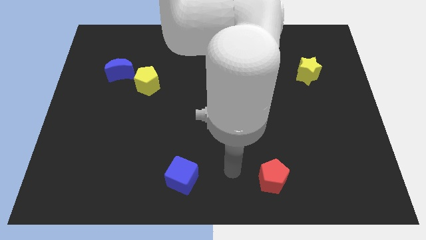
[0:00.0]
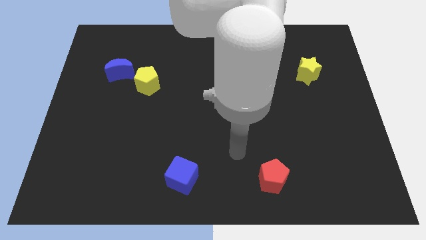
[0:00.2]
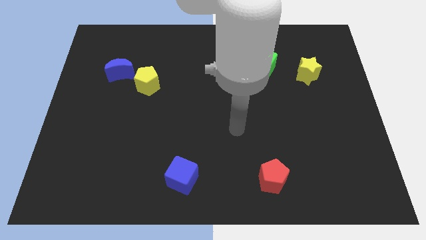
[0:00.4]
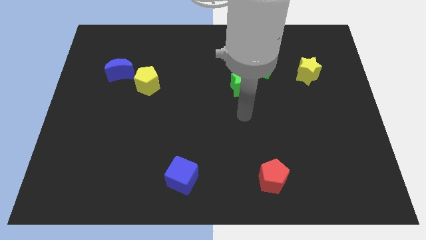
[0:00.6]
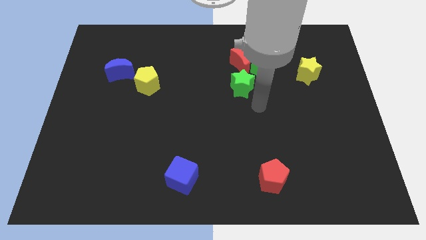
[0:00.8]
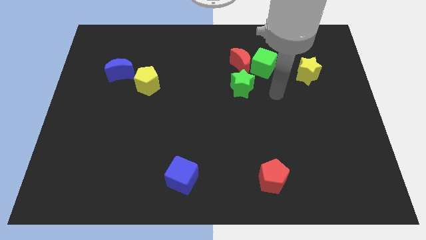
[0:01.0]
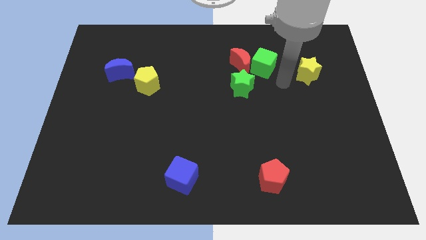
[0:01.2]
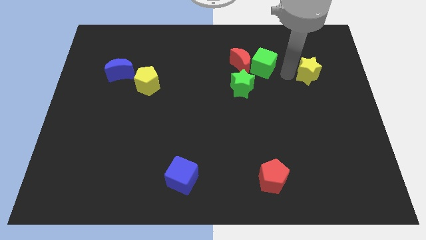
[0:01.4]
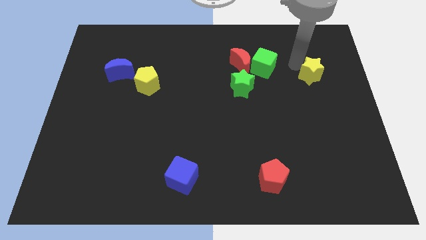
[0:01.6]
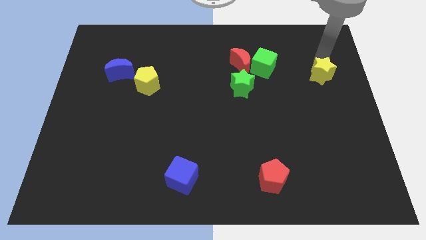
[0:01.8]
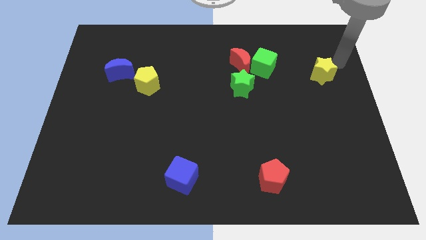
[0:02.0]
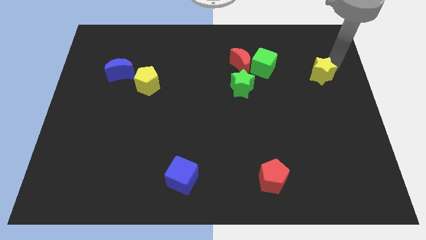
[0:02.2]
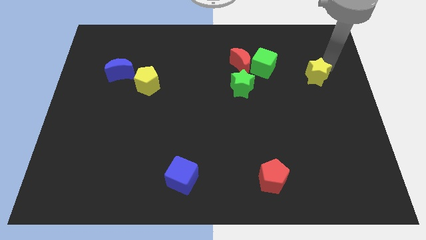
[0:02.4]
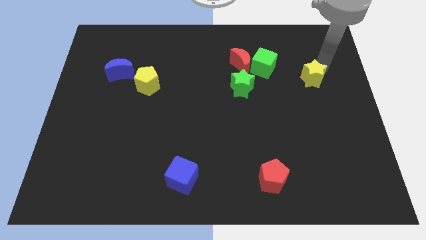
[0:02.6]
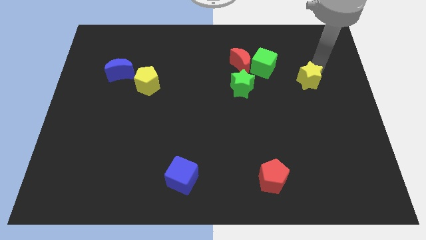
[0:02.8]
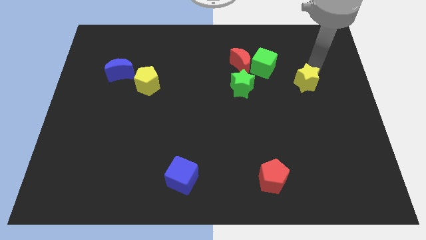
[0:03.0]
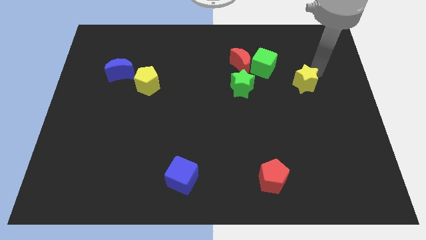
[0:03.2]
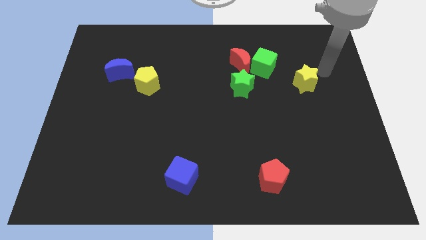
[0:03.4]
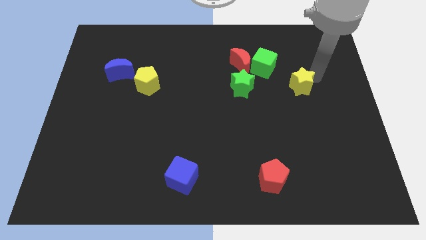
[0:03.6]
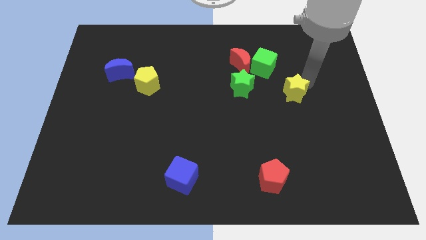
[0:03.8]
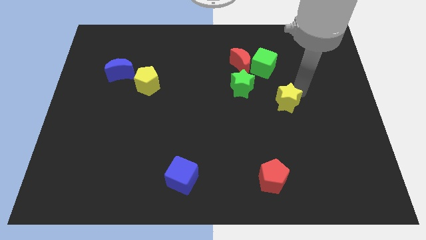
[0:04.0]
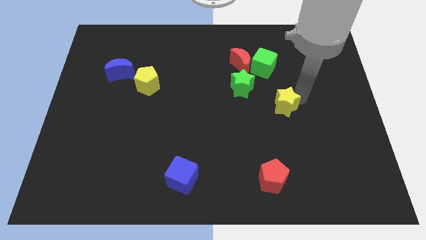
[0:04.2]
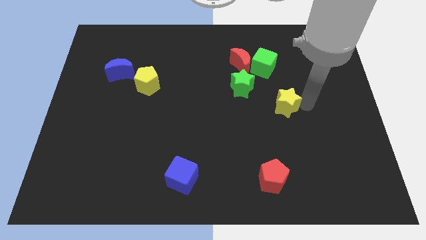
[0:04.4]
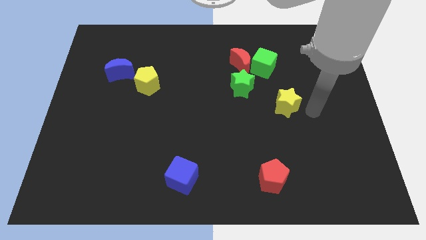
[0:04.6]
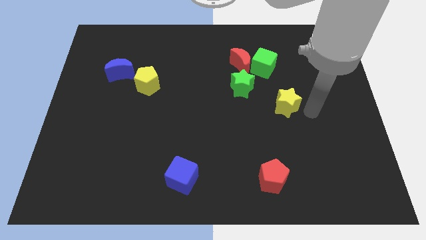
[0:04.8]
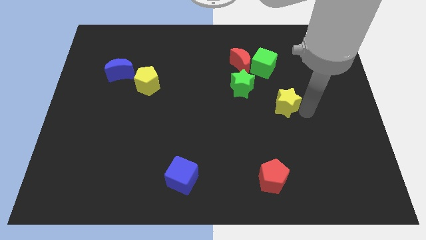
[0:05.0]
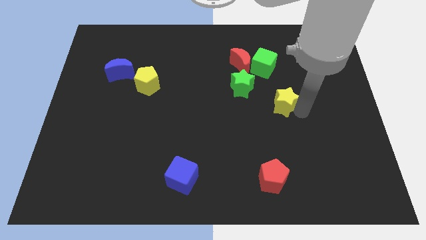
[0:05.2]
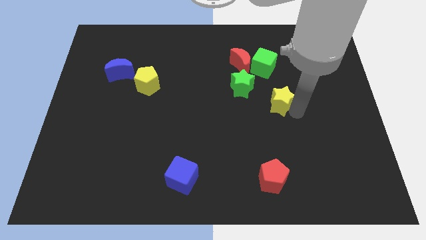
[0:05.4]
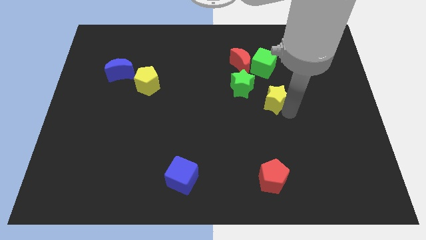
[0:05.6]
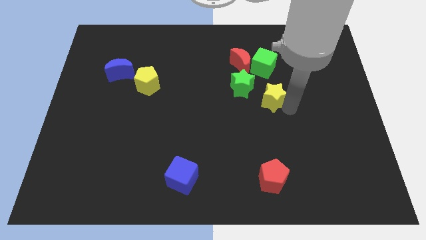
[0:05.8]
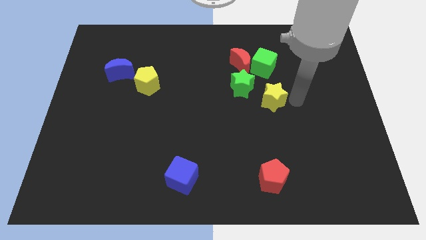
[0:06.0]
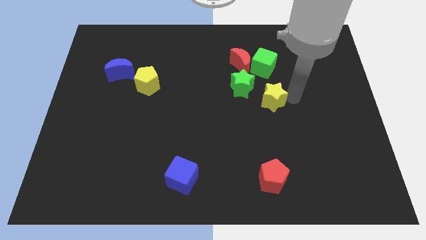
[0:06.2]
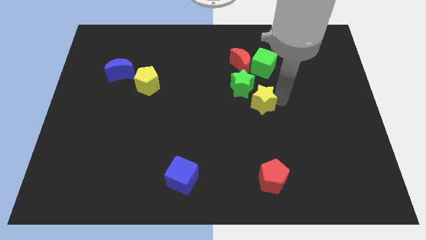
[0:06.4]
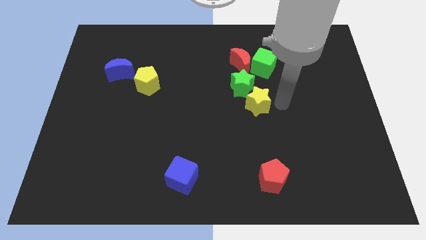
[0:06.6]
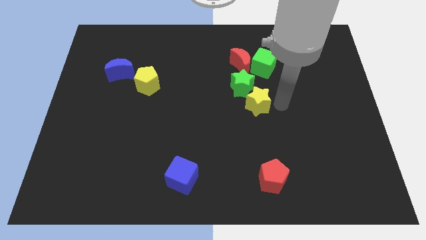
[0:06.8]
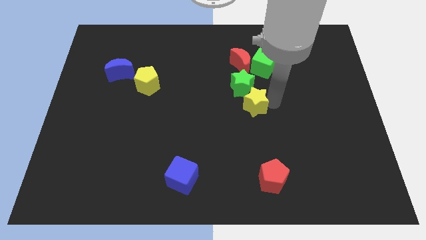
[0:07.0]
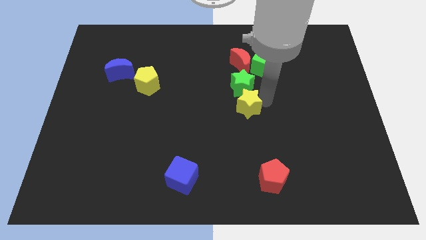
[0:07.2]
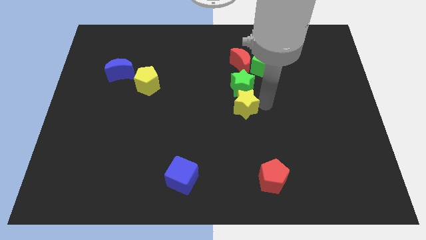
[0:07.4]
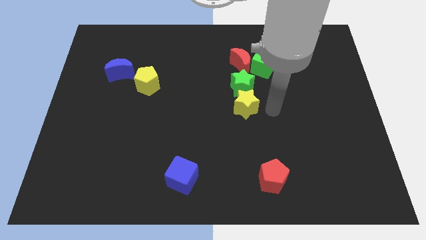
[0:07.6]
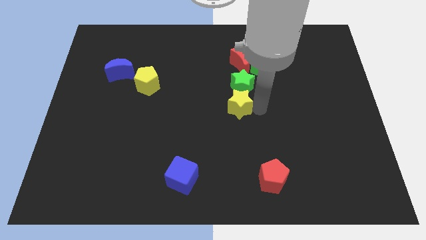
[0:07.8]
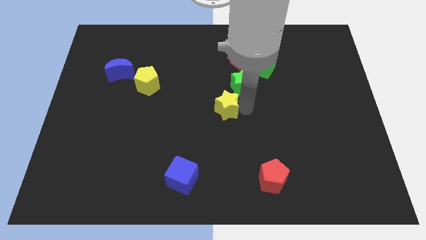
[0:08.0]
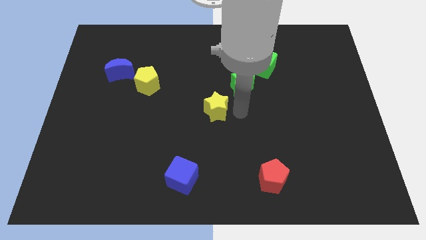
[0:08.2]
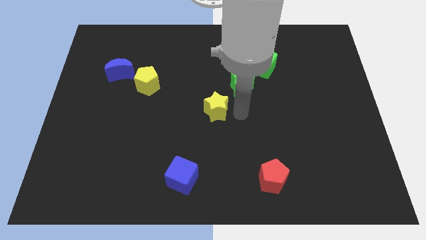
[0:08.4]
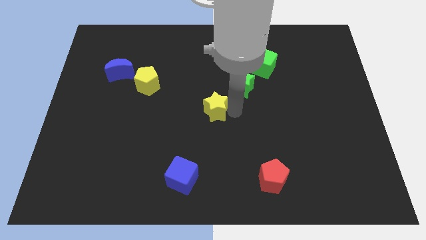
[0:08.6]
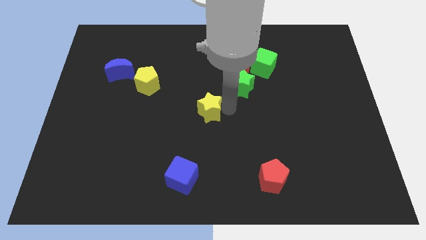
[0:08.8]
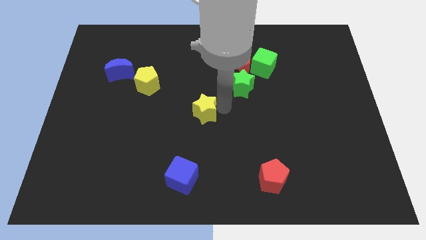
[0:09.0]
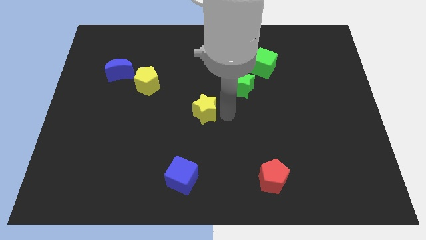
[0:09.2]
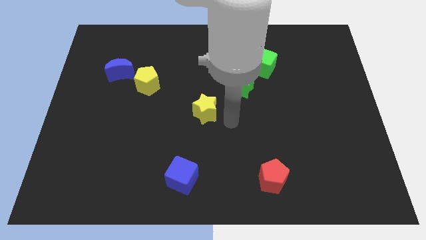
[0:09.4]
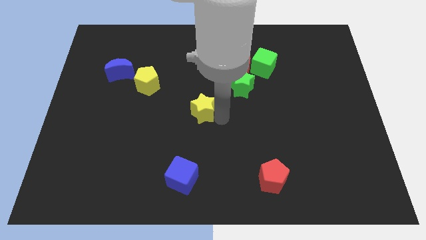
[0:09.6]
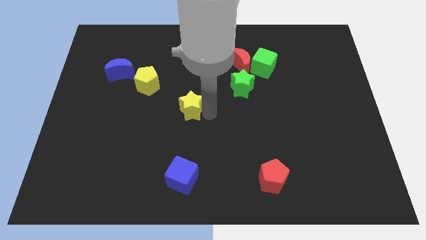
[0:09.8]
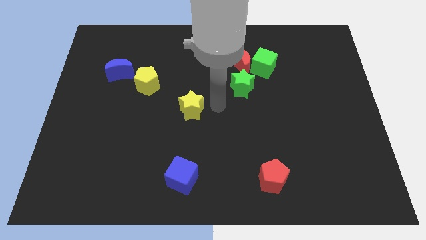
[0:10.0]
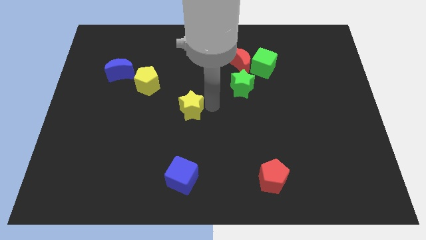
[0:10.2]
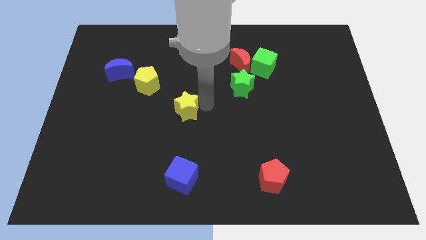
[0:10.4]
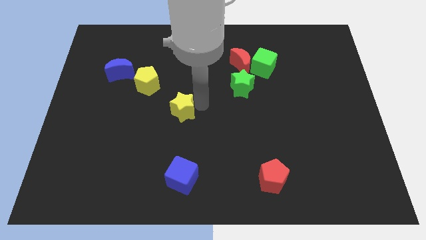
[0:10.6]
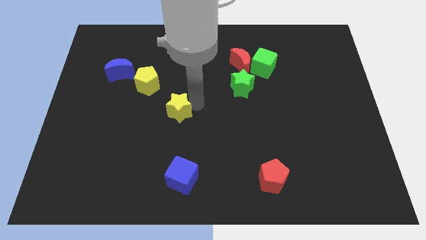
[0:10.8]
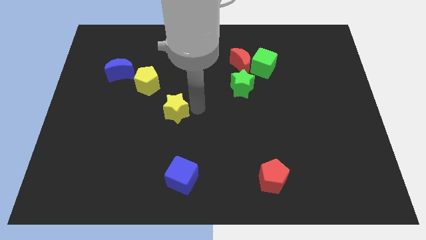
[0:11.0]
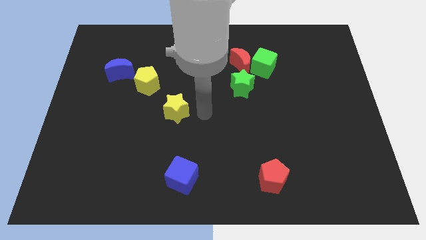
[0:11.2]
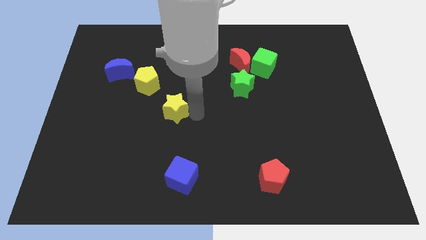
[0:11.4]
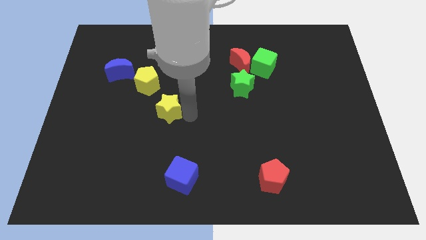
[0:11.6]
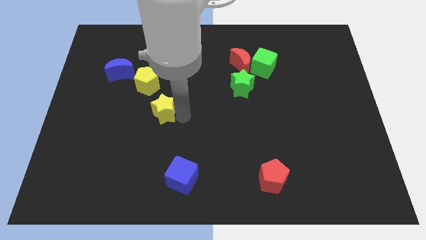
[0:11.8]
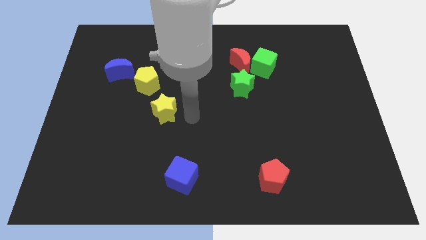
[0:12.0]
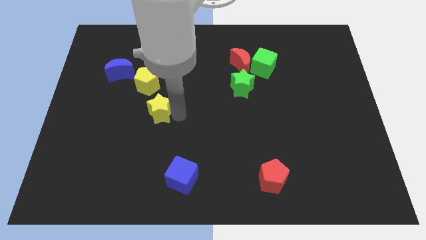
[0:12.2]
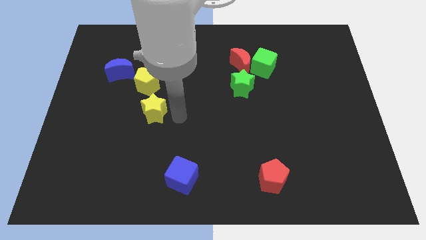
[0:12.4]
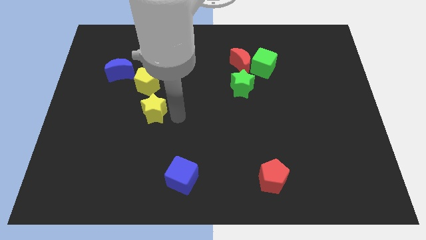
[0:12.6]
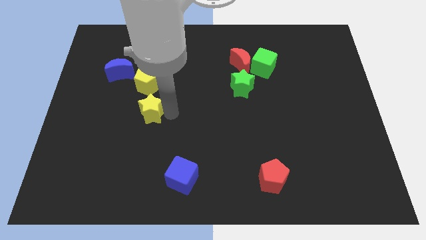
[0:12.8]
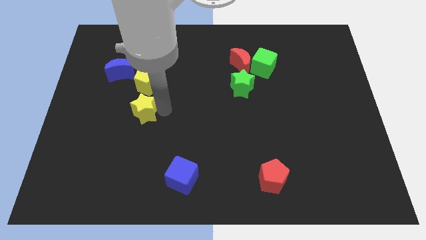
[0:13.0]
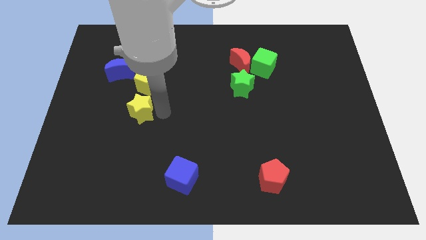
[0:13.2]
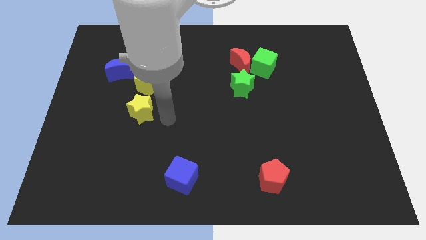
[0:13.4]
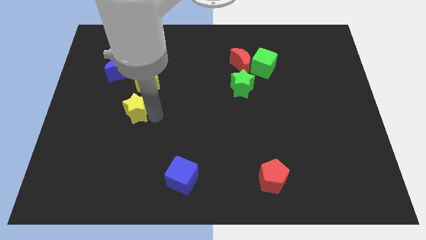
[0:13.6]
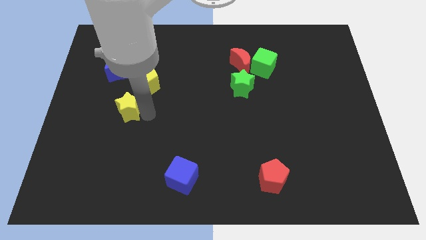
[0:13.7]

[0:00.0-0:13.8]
push the yellow star below the blue moon
